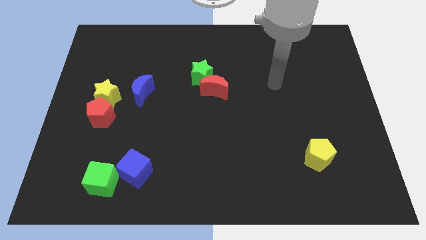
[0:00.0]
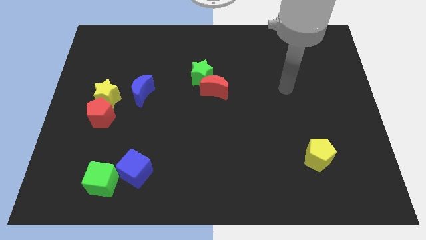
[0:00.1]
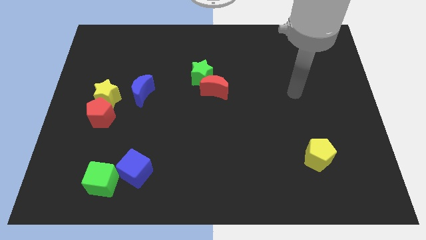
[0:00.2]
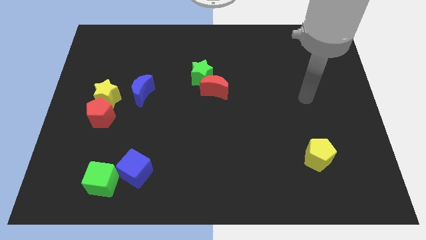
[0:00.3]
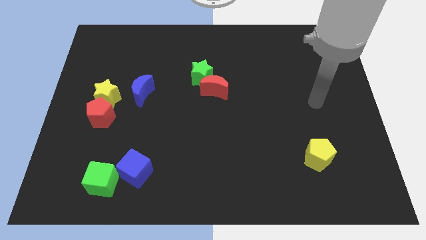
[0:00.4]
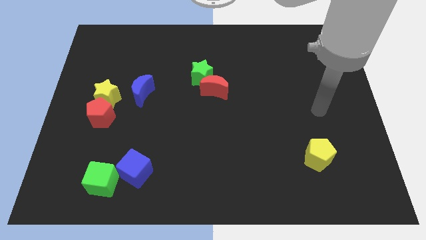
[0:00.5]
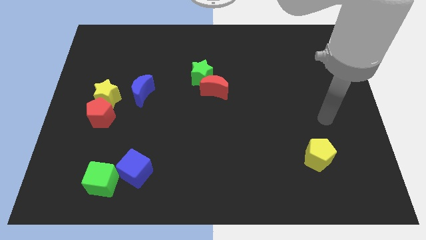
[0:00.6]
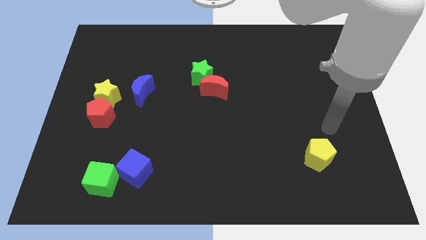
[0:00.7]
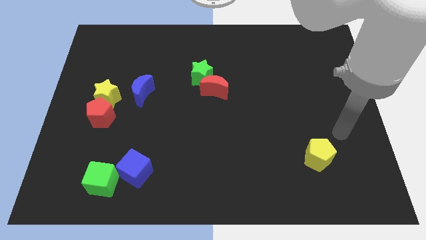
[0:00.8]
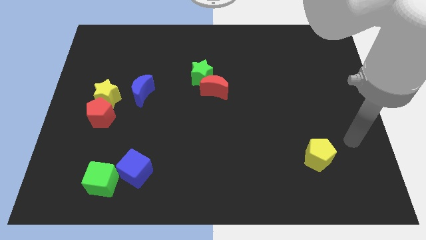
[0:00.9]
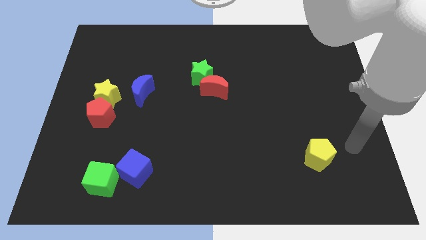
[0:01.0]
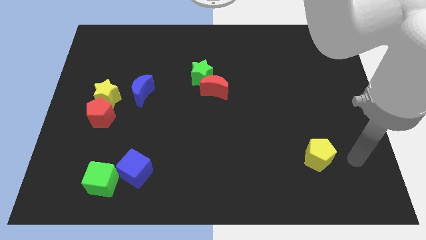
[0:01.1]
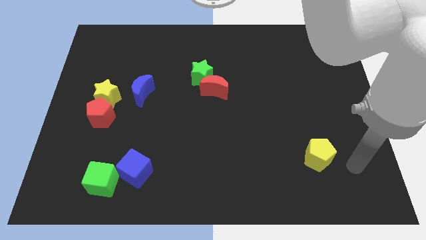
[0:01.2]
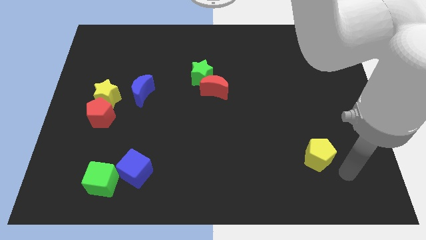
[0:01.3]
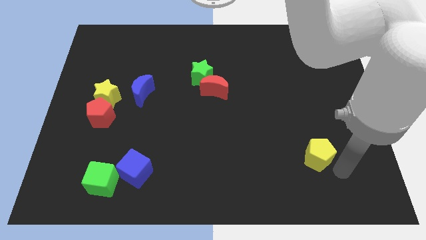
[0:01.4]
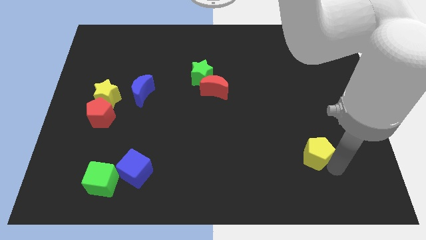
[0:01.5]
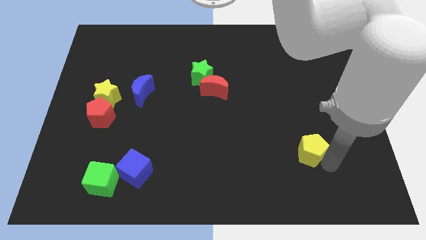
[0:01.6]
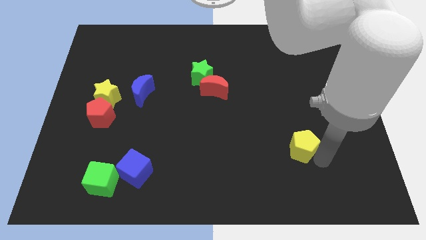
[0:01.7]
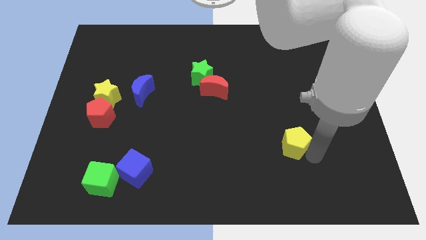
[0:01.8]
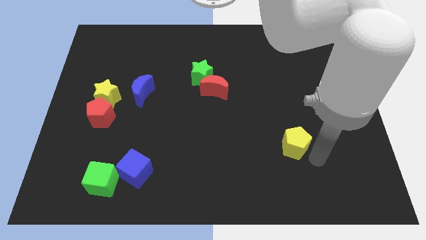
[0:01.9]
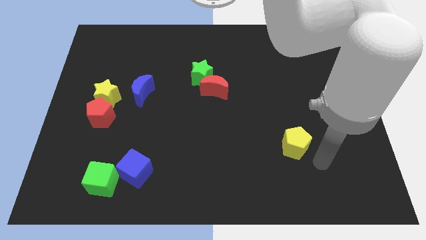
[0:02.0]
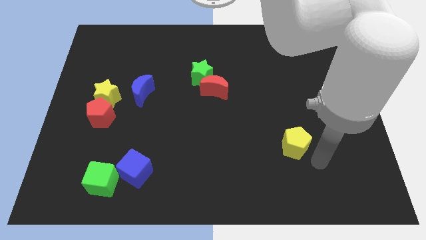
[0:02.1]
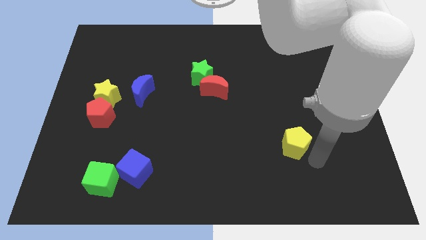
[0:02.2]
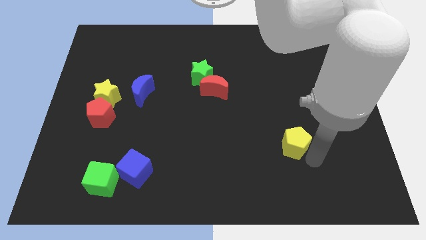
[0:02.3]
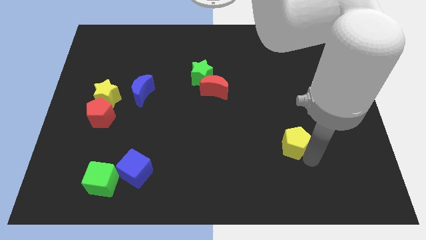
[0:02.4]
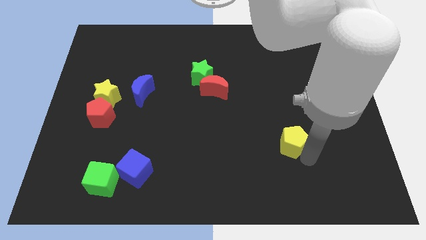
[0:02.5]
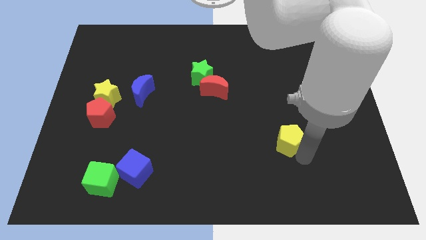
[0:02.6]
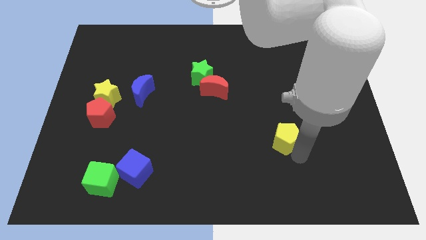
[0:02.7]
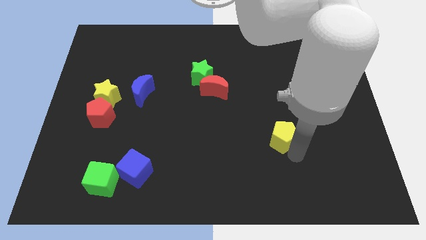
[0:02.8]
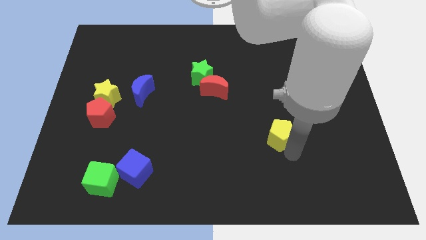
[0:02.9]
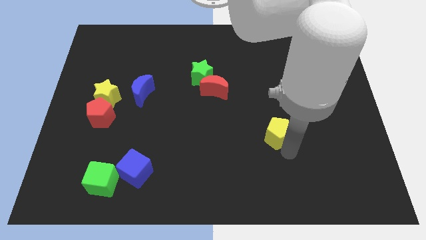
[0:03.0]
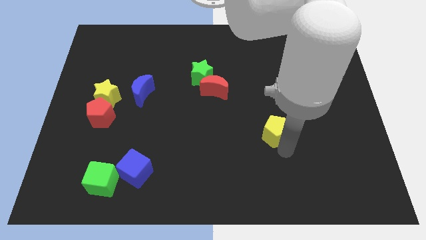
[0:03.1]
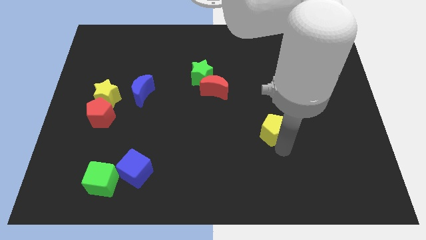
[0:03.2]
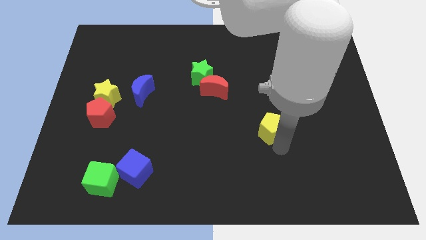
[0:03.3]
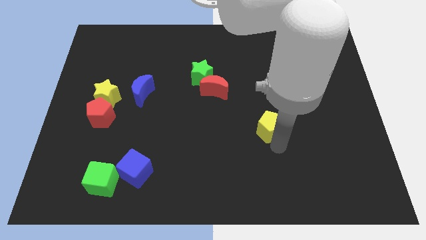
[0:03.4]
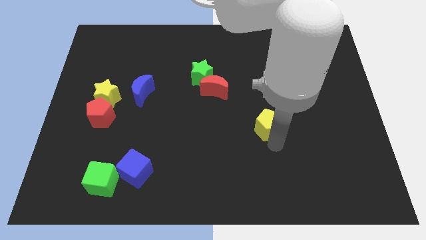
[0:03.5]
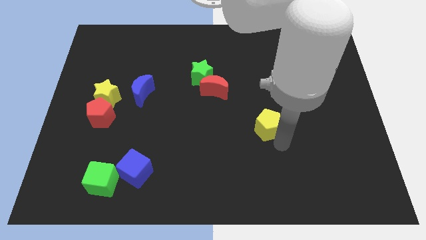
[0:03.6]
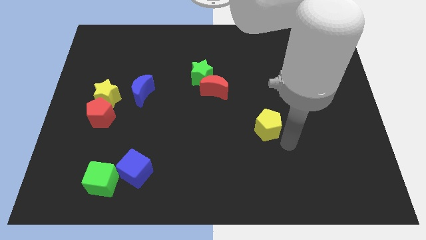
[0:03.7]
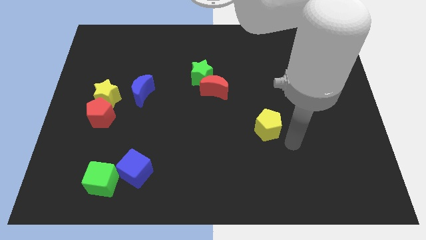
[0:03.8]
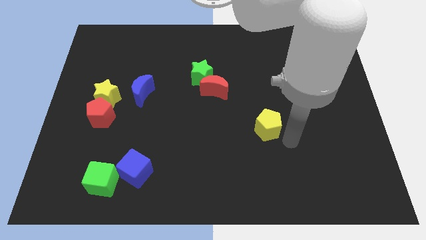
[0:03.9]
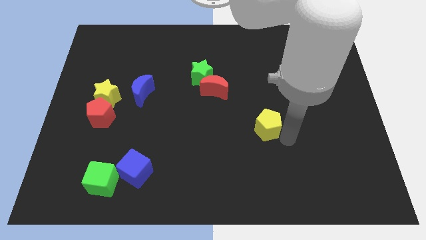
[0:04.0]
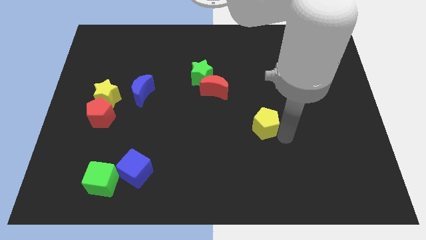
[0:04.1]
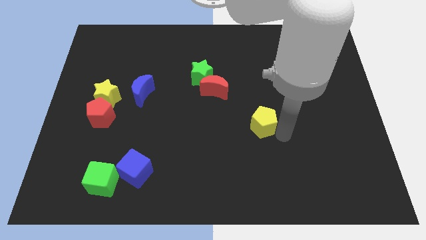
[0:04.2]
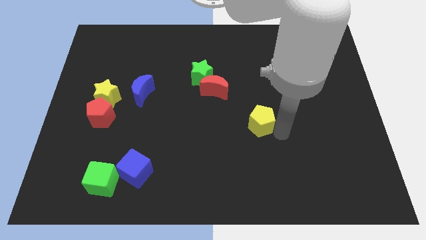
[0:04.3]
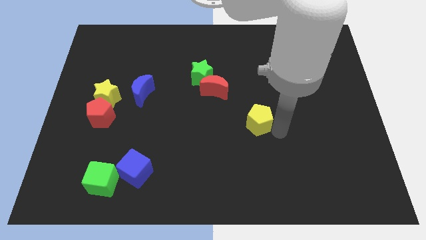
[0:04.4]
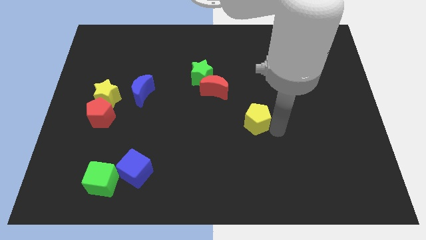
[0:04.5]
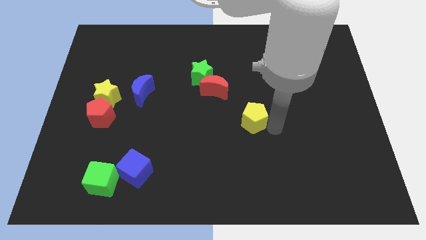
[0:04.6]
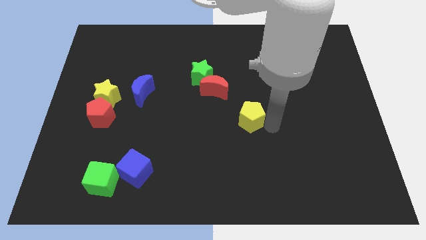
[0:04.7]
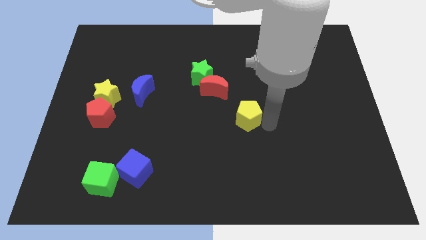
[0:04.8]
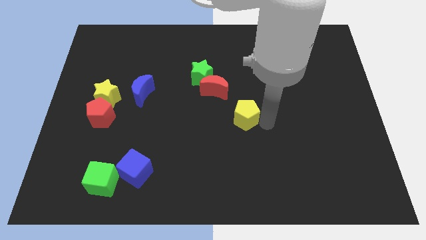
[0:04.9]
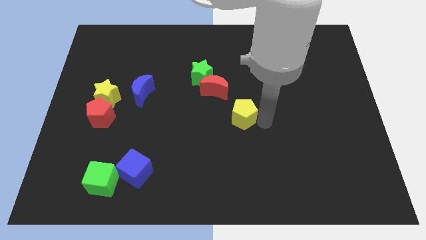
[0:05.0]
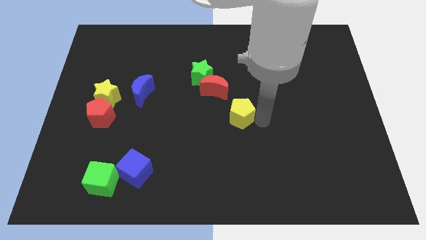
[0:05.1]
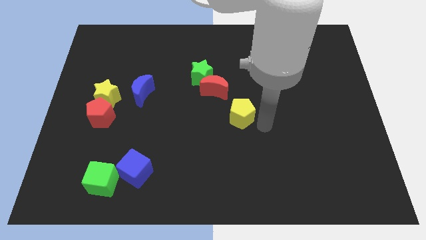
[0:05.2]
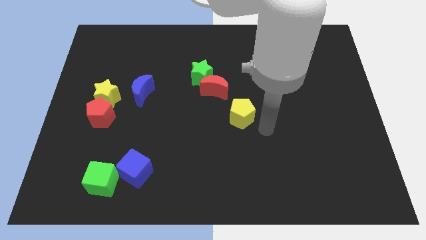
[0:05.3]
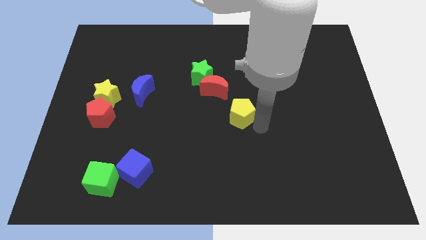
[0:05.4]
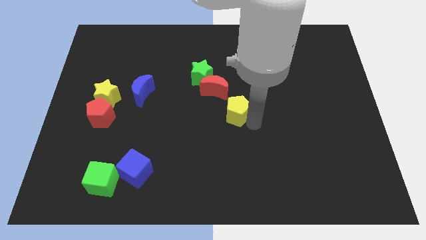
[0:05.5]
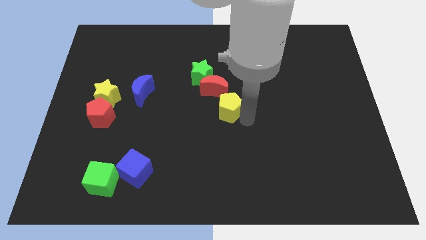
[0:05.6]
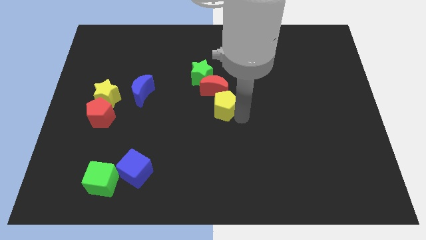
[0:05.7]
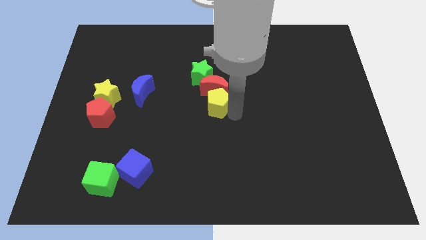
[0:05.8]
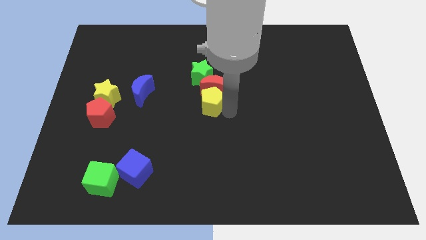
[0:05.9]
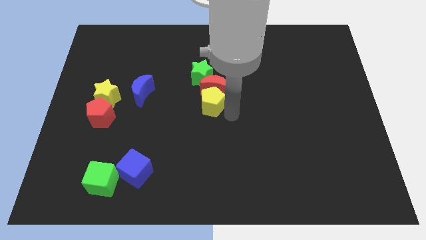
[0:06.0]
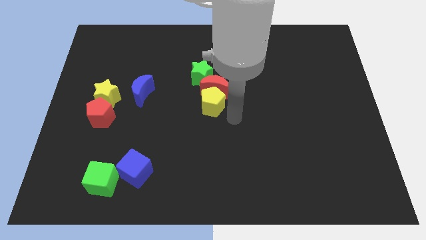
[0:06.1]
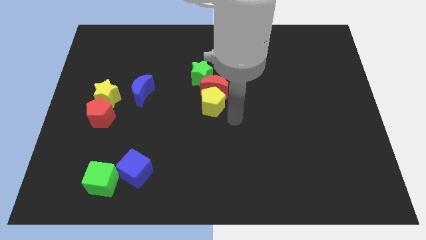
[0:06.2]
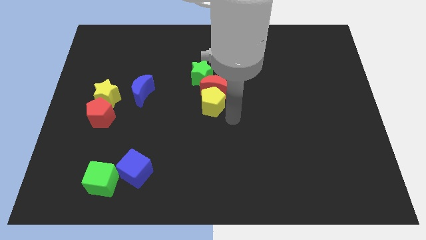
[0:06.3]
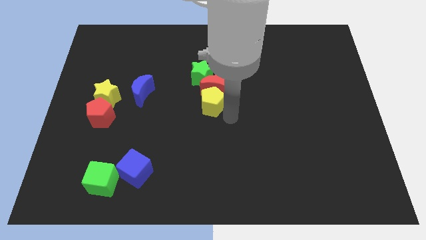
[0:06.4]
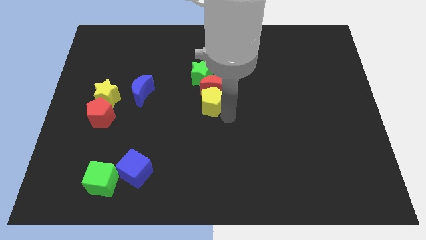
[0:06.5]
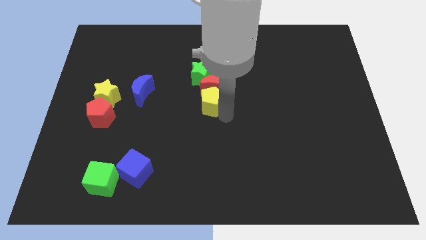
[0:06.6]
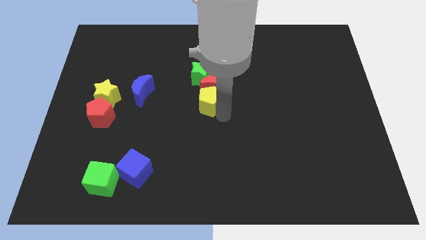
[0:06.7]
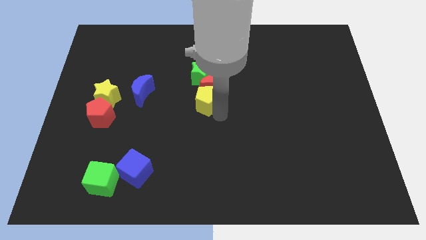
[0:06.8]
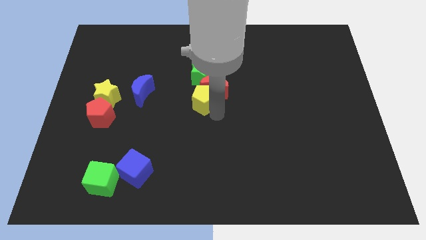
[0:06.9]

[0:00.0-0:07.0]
slide the yellow pentagon just right of the blue moon
